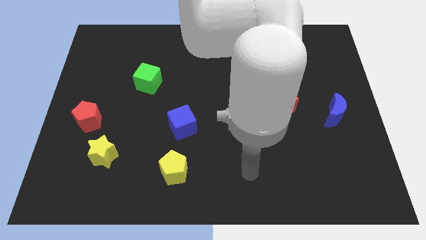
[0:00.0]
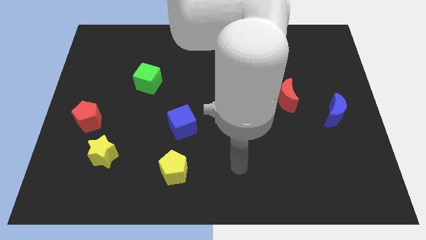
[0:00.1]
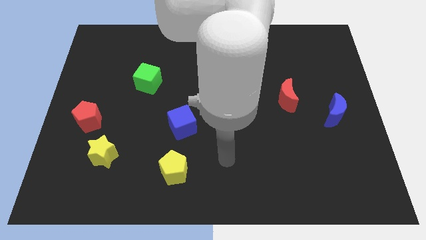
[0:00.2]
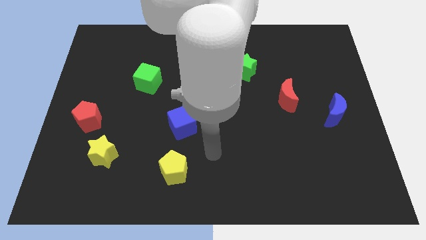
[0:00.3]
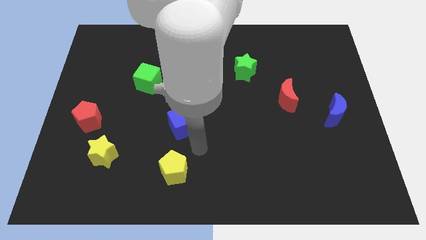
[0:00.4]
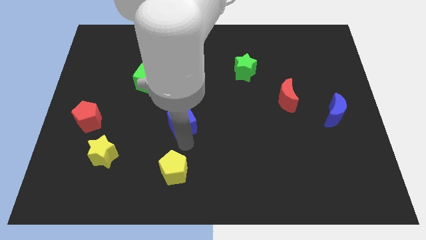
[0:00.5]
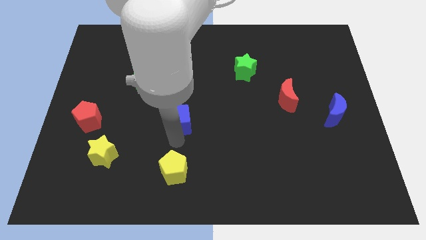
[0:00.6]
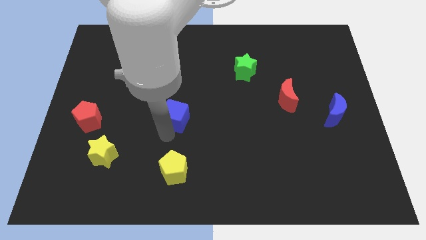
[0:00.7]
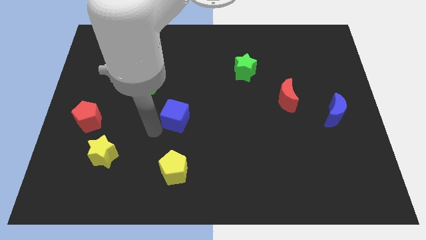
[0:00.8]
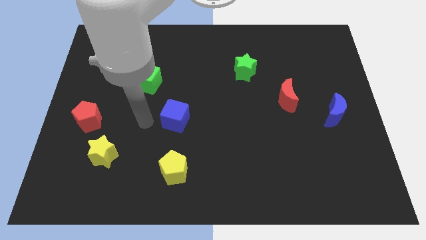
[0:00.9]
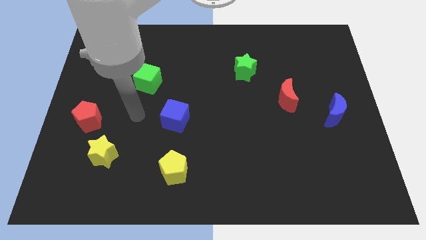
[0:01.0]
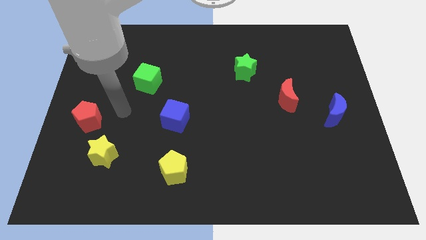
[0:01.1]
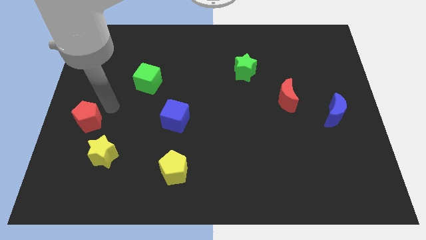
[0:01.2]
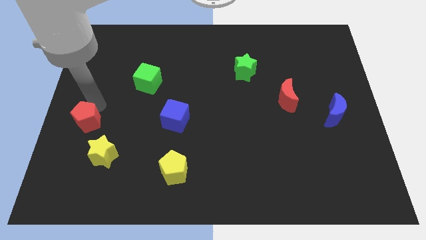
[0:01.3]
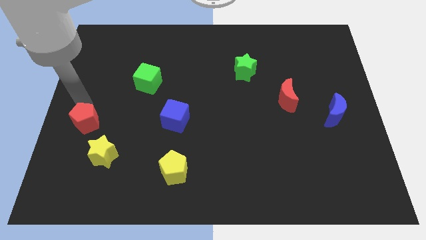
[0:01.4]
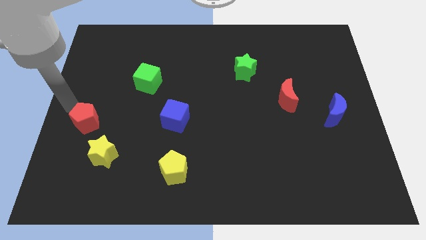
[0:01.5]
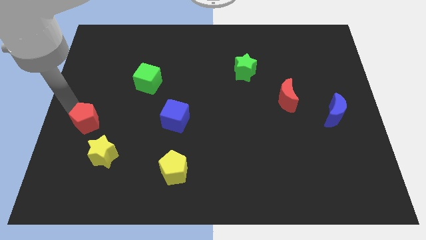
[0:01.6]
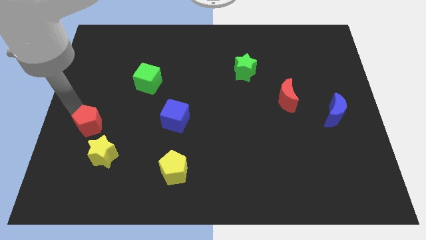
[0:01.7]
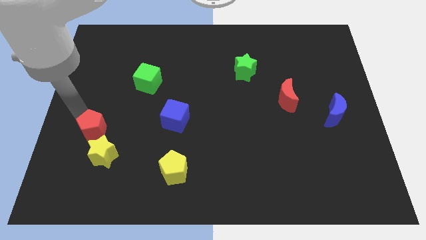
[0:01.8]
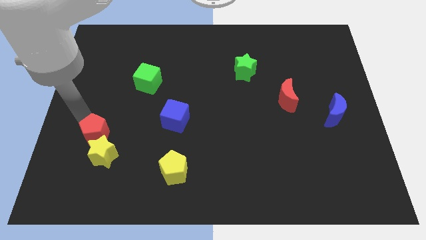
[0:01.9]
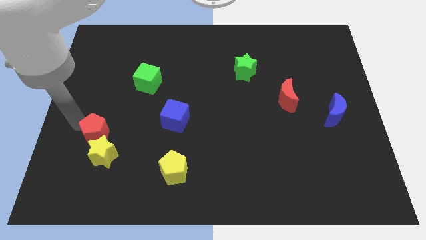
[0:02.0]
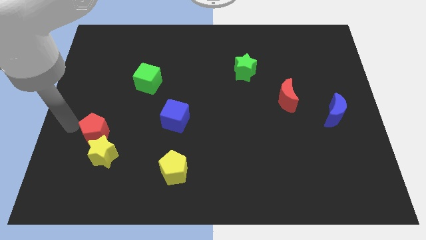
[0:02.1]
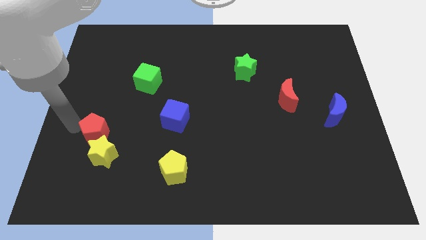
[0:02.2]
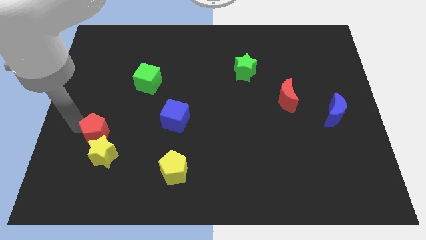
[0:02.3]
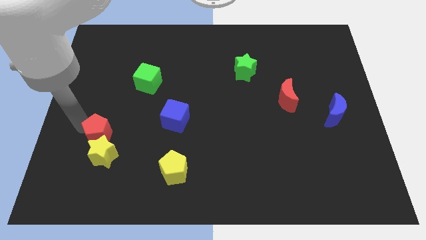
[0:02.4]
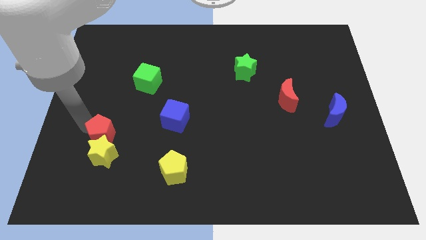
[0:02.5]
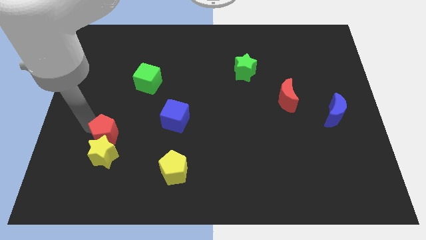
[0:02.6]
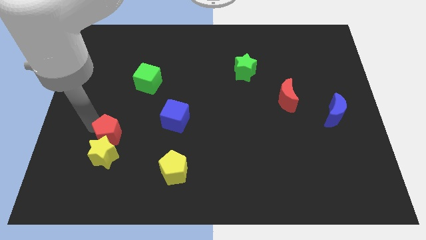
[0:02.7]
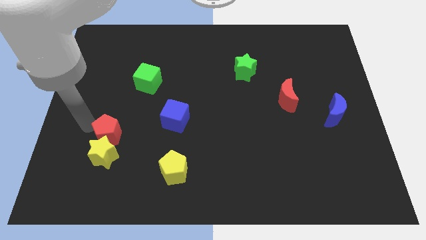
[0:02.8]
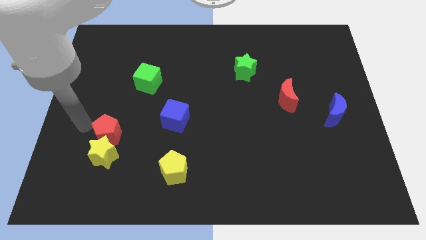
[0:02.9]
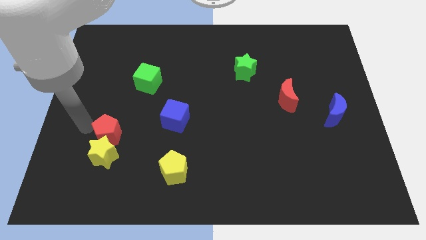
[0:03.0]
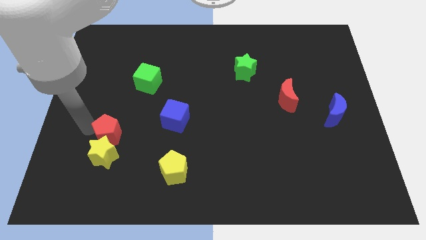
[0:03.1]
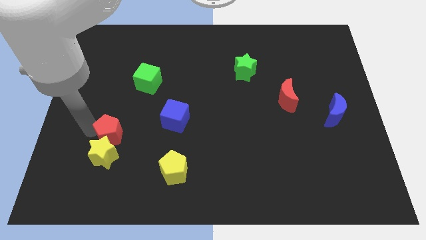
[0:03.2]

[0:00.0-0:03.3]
slide the red pentagon down and to the right diagonally a bit

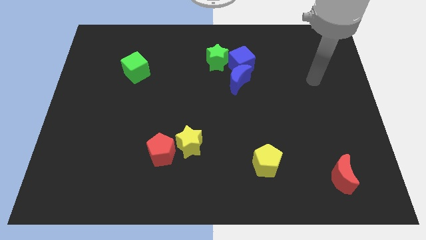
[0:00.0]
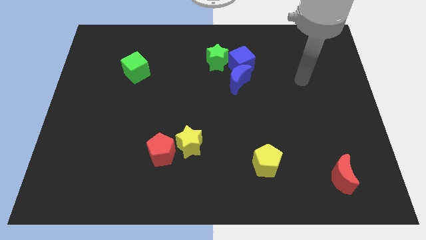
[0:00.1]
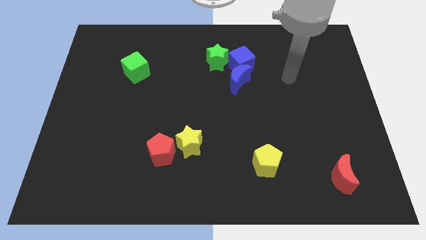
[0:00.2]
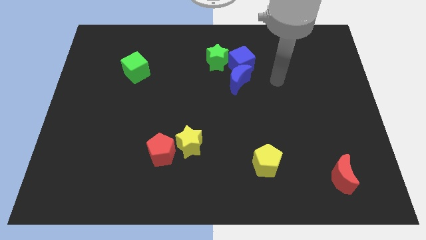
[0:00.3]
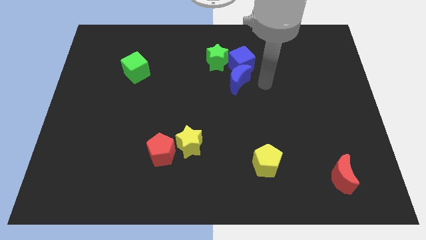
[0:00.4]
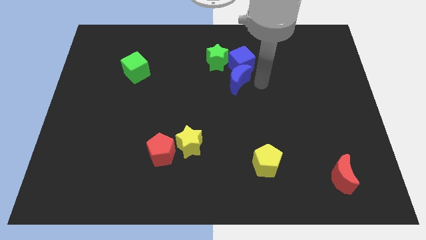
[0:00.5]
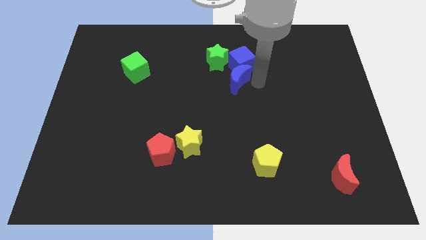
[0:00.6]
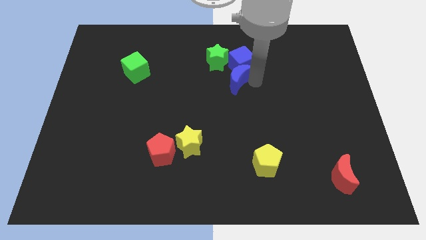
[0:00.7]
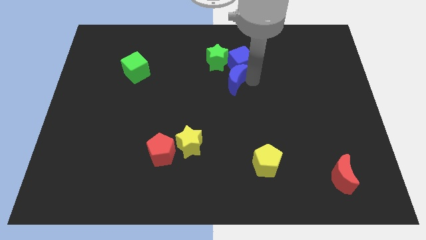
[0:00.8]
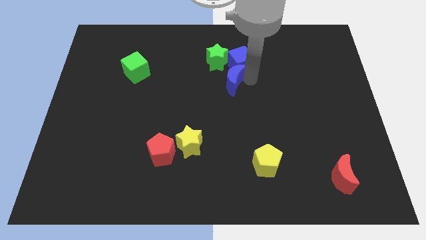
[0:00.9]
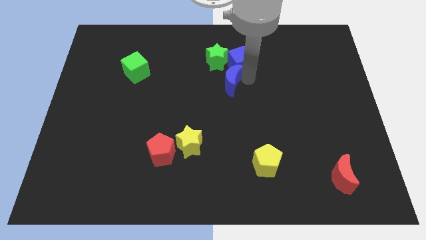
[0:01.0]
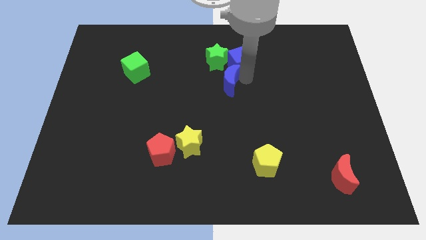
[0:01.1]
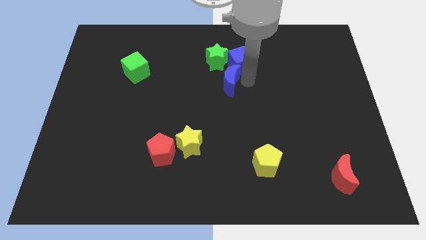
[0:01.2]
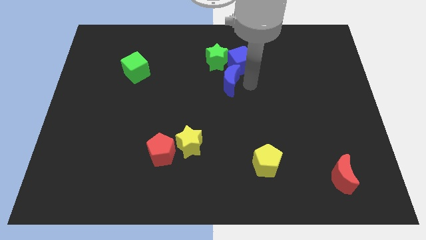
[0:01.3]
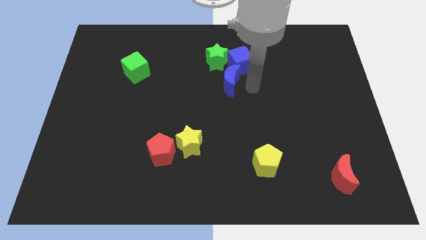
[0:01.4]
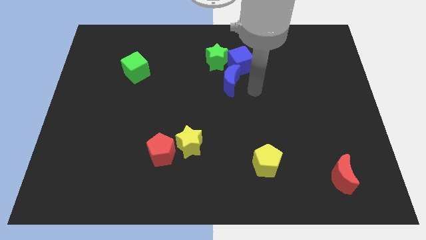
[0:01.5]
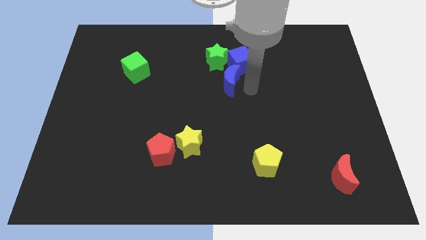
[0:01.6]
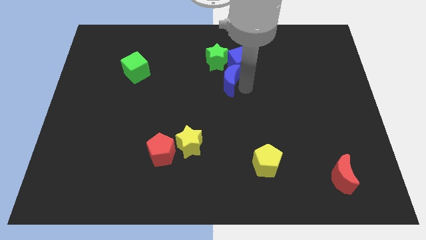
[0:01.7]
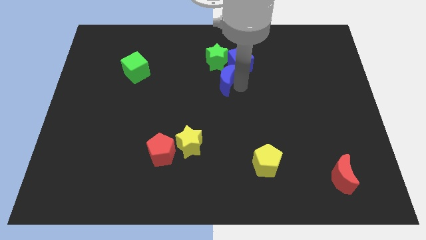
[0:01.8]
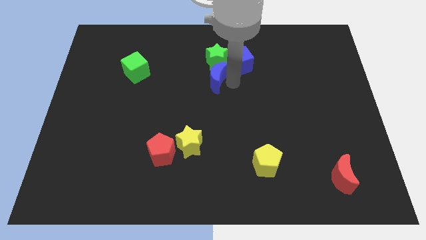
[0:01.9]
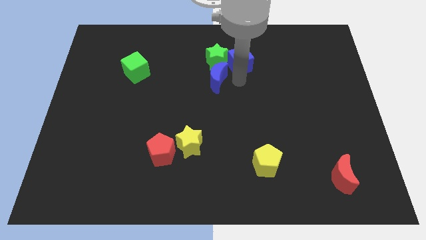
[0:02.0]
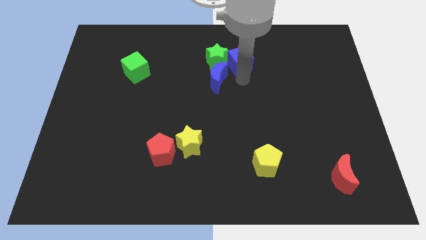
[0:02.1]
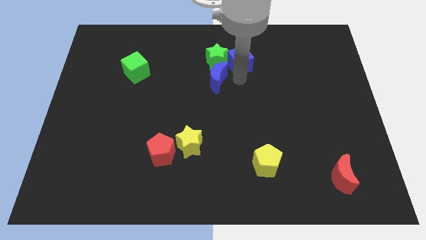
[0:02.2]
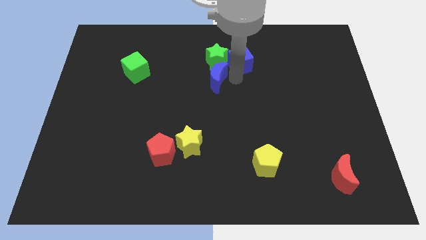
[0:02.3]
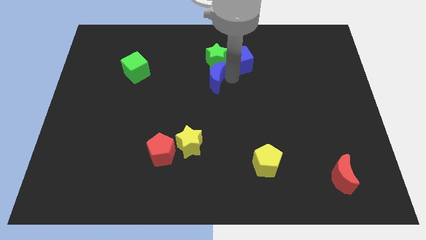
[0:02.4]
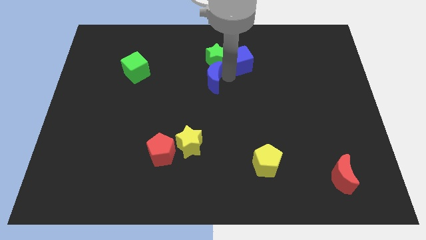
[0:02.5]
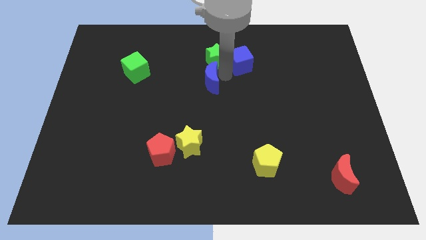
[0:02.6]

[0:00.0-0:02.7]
slightly slide the blue moon left

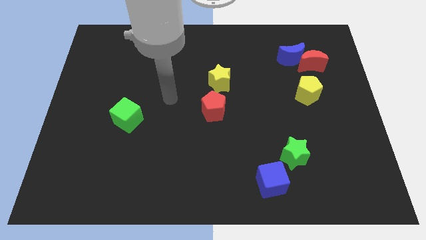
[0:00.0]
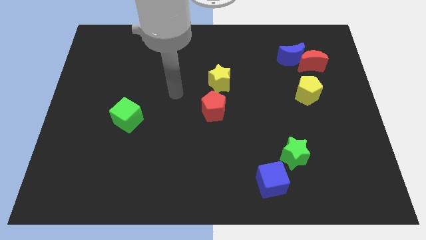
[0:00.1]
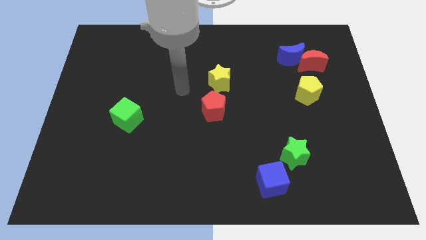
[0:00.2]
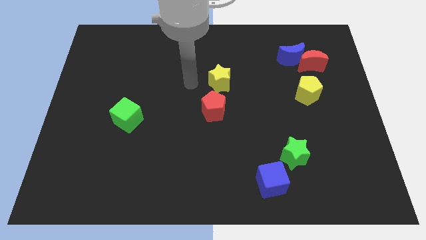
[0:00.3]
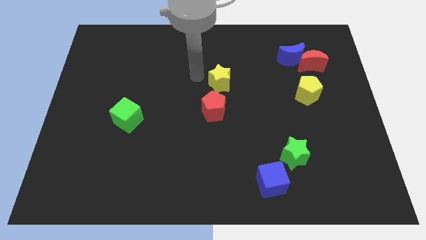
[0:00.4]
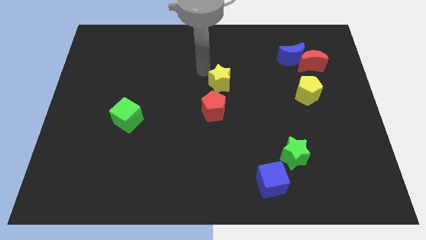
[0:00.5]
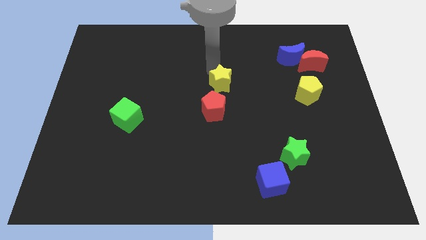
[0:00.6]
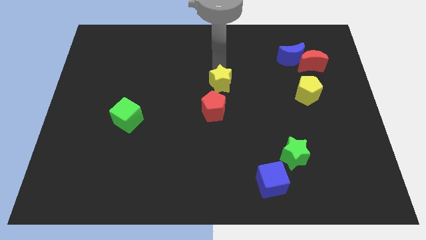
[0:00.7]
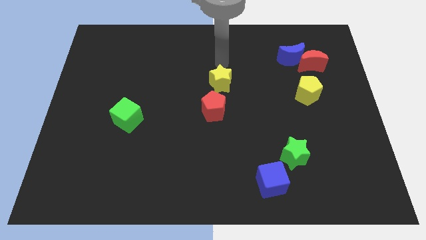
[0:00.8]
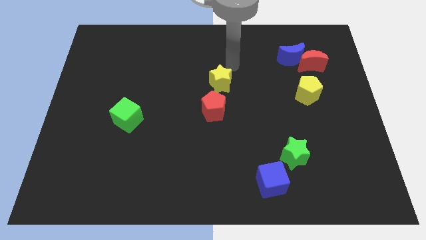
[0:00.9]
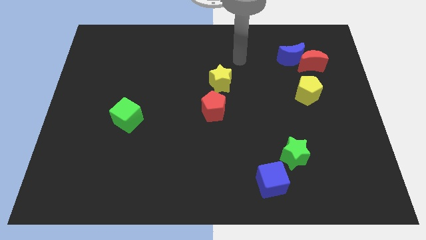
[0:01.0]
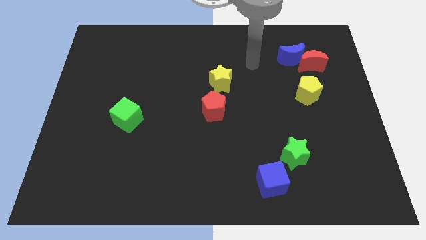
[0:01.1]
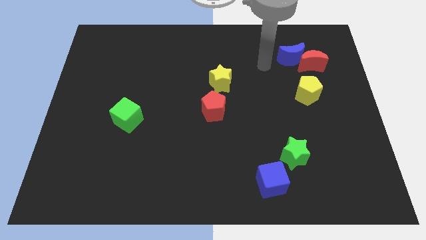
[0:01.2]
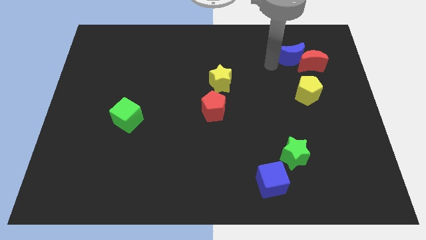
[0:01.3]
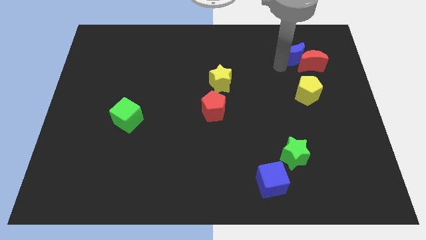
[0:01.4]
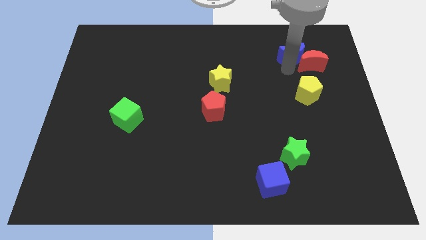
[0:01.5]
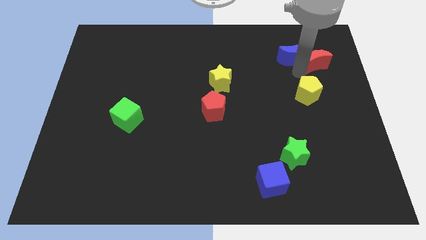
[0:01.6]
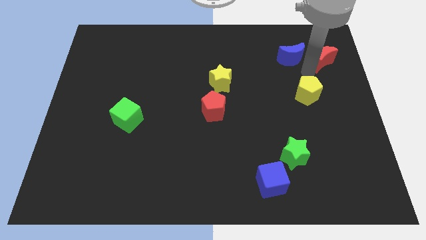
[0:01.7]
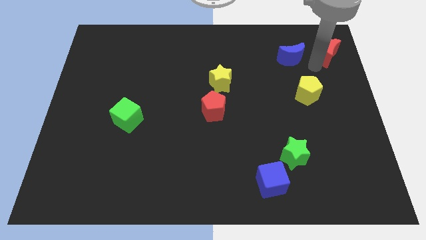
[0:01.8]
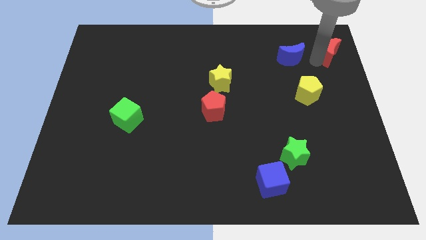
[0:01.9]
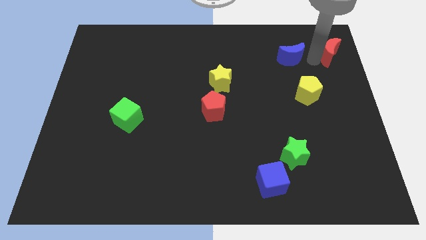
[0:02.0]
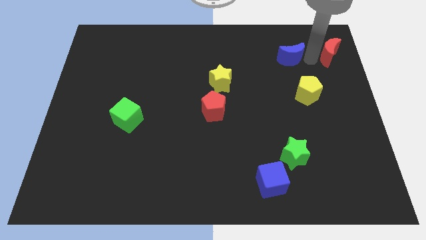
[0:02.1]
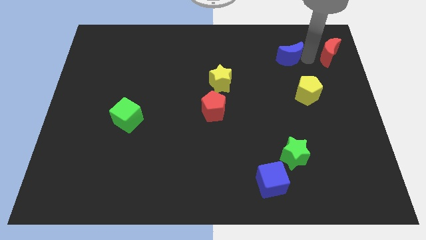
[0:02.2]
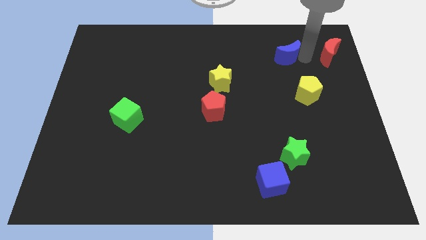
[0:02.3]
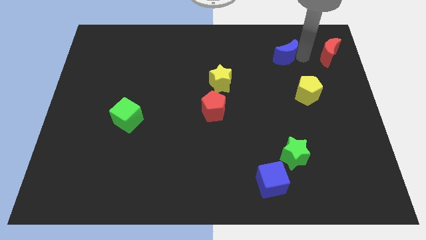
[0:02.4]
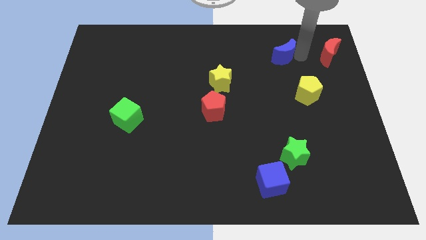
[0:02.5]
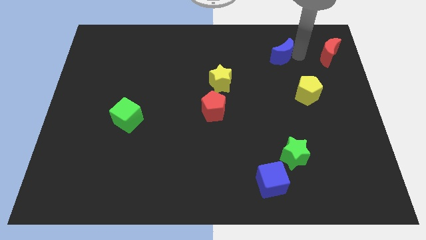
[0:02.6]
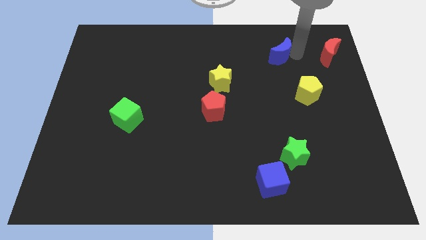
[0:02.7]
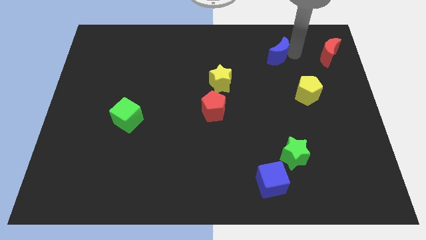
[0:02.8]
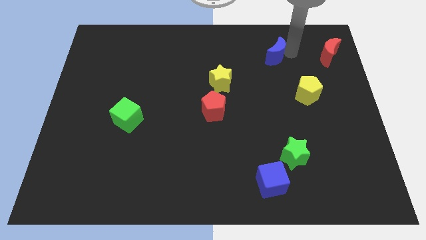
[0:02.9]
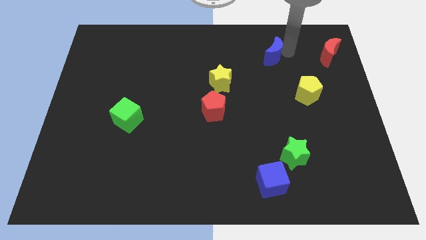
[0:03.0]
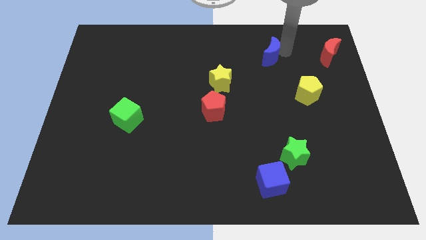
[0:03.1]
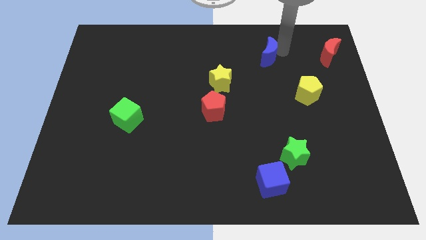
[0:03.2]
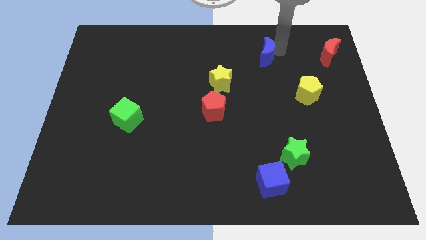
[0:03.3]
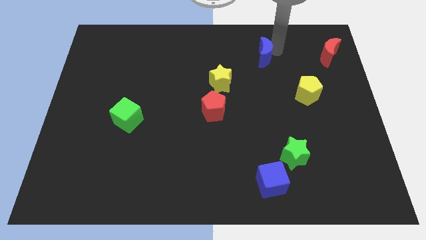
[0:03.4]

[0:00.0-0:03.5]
slide the blue moon left somewhat
